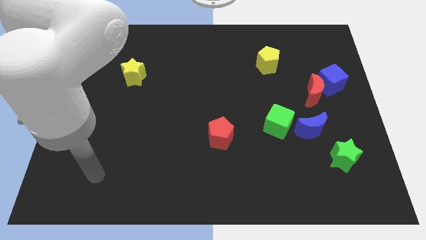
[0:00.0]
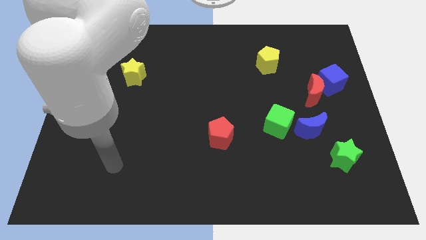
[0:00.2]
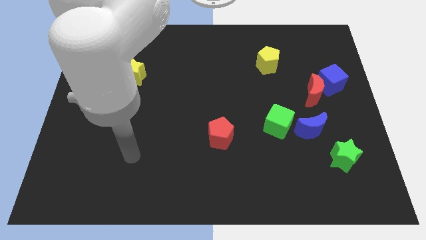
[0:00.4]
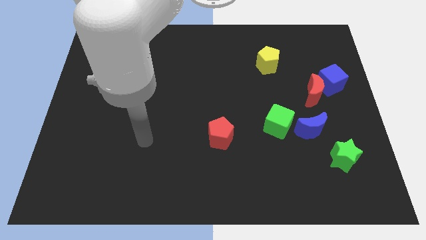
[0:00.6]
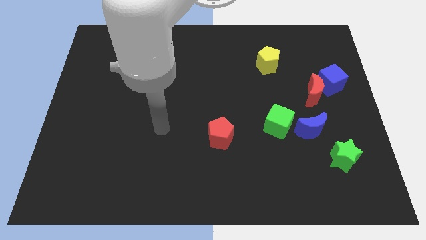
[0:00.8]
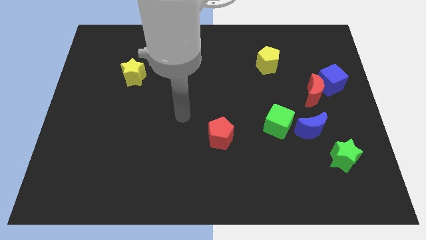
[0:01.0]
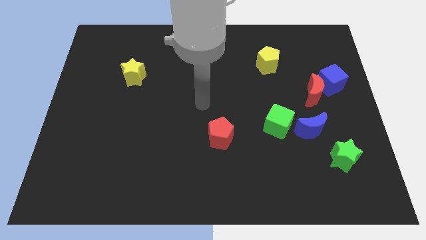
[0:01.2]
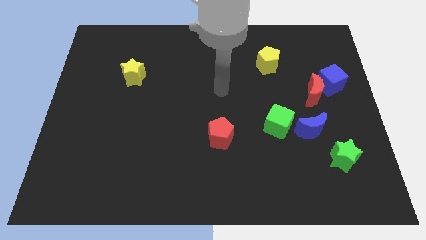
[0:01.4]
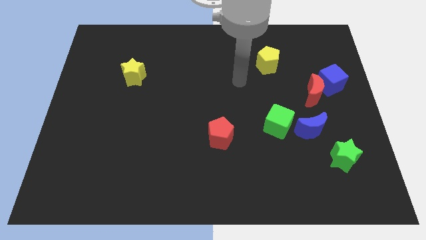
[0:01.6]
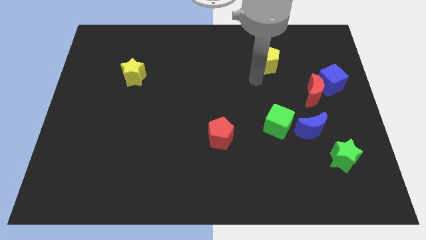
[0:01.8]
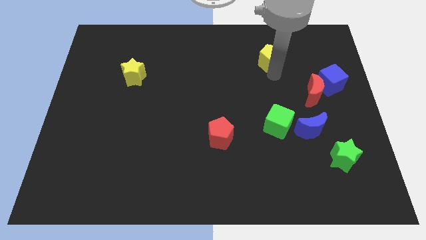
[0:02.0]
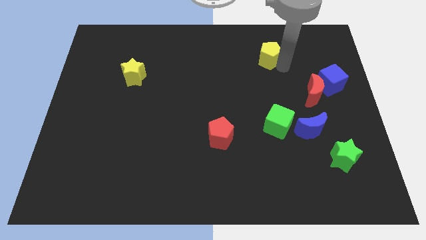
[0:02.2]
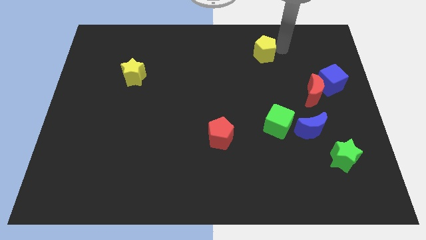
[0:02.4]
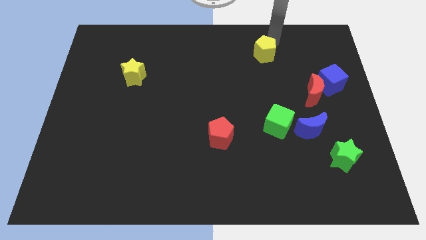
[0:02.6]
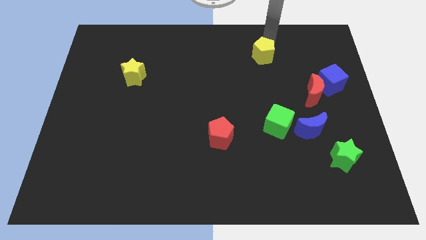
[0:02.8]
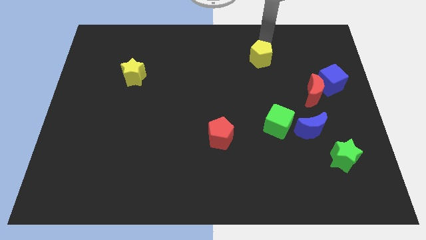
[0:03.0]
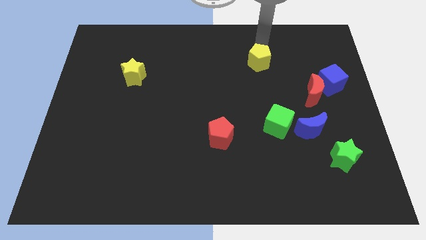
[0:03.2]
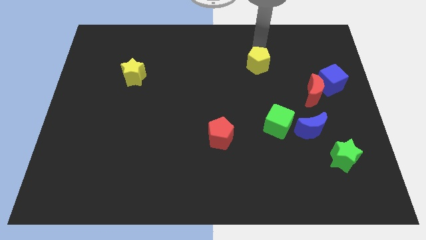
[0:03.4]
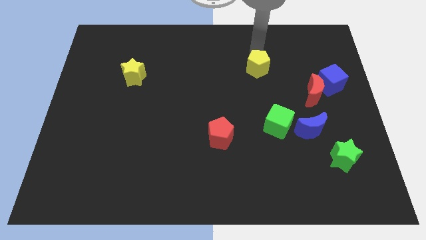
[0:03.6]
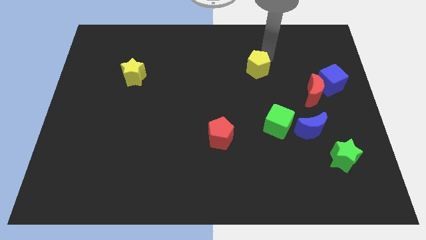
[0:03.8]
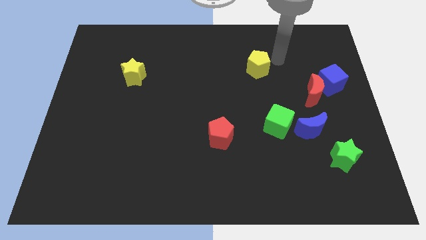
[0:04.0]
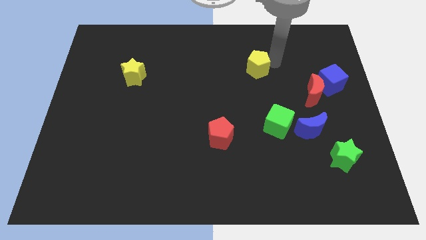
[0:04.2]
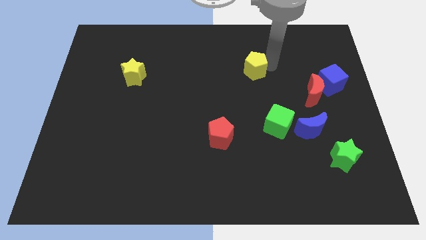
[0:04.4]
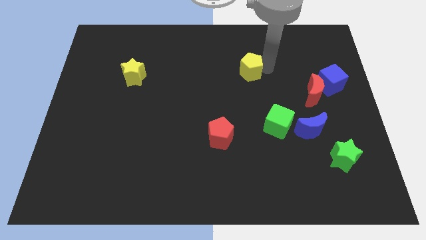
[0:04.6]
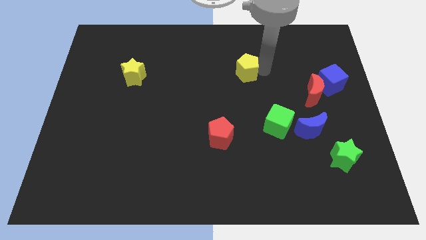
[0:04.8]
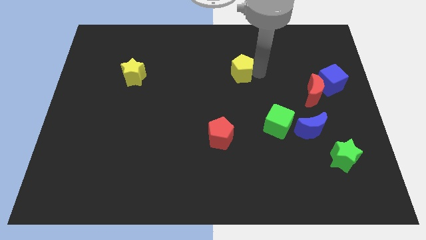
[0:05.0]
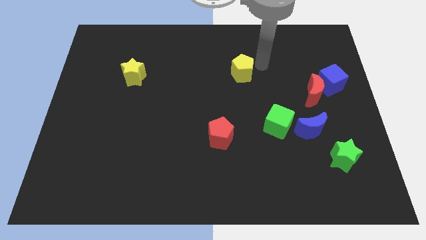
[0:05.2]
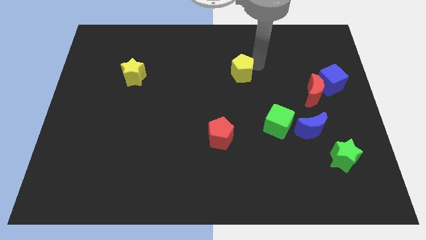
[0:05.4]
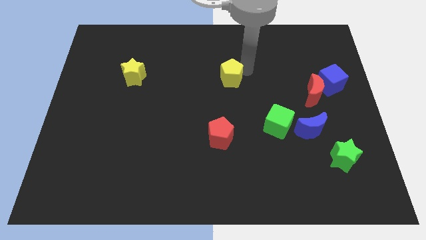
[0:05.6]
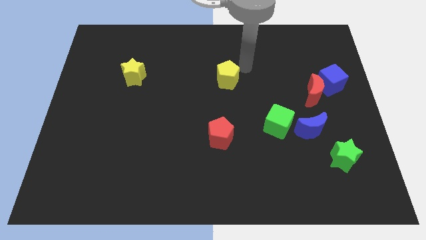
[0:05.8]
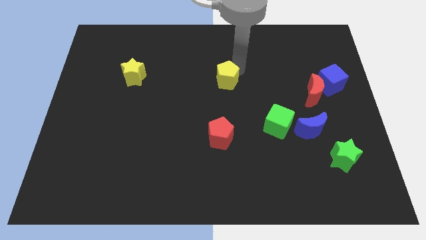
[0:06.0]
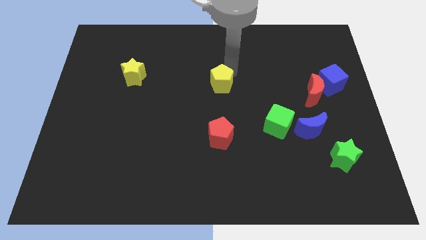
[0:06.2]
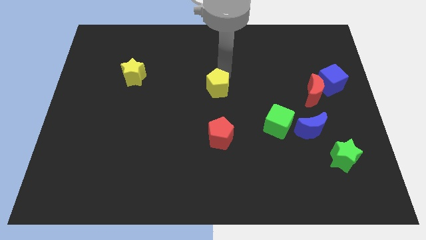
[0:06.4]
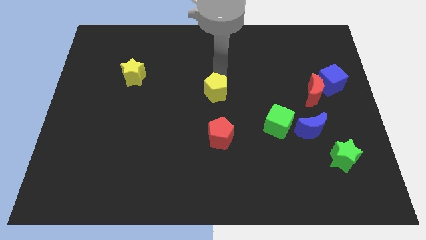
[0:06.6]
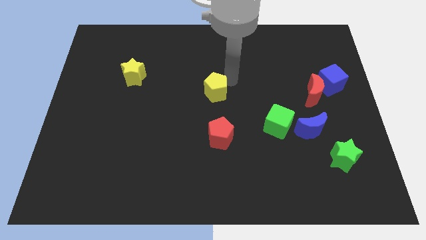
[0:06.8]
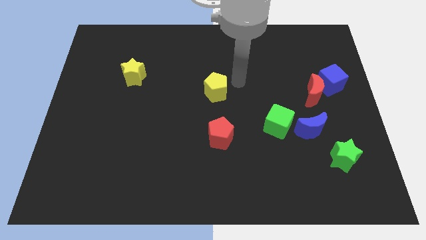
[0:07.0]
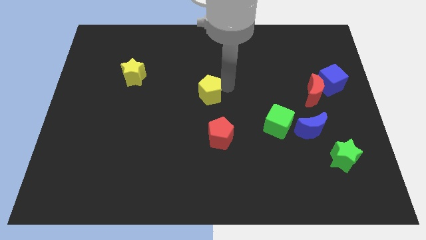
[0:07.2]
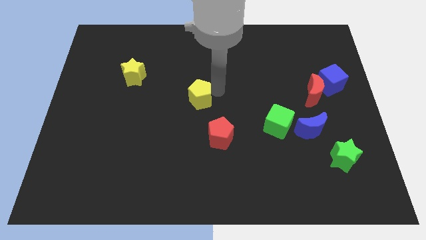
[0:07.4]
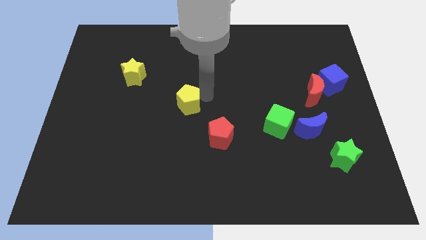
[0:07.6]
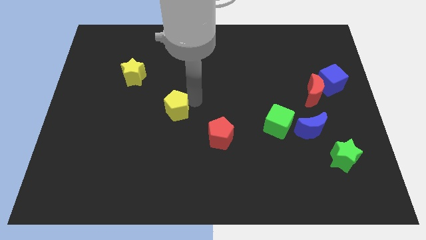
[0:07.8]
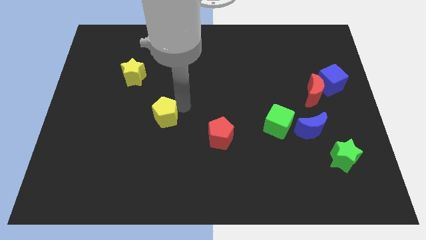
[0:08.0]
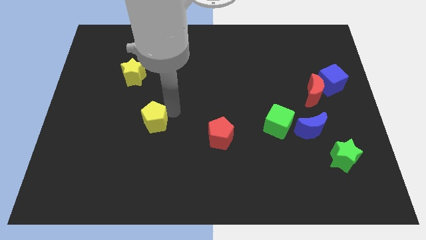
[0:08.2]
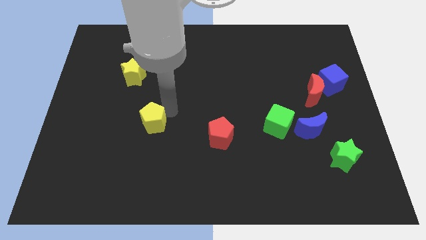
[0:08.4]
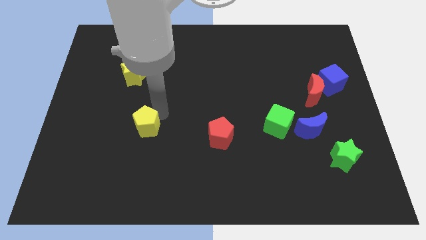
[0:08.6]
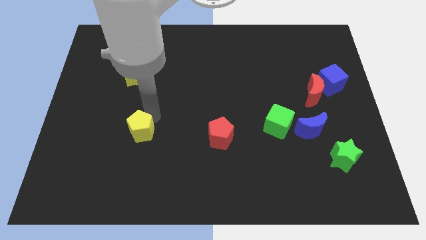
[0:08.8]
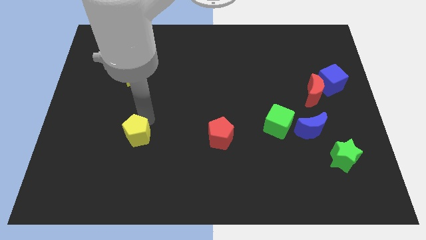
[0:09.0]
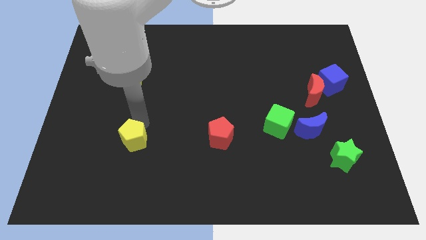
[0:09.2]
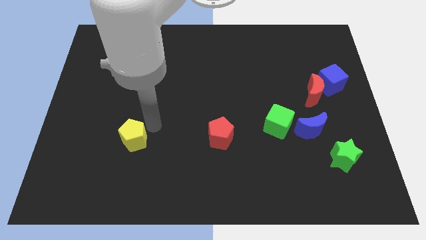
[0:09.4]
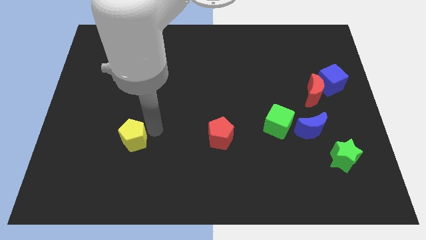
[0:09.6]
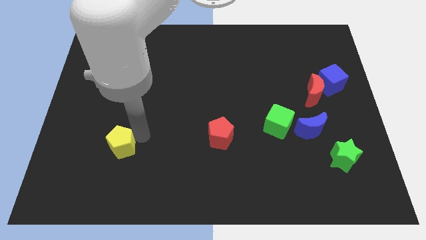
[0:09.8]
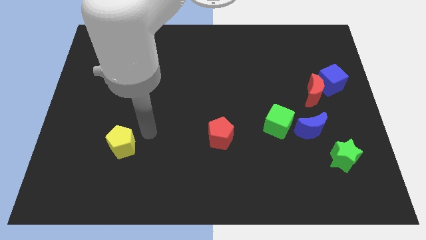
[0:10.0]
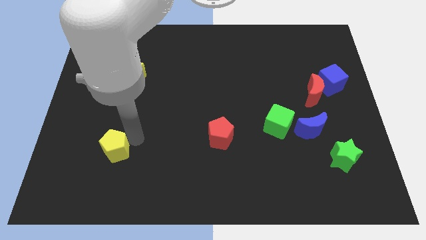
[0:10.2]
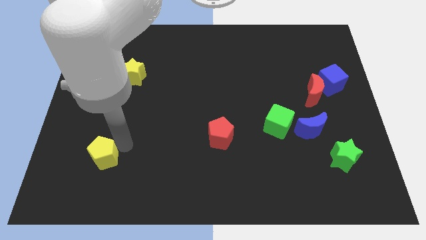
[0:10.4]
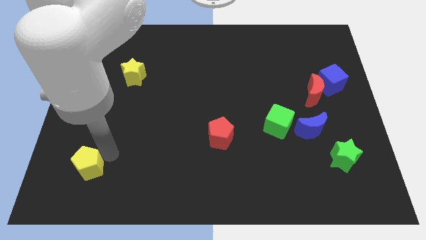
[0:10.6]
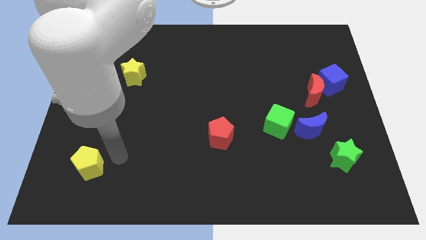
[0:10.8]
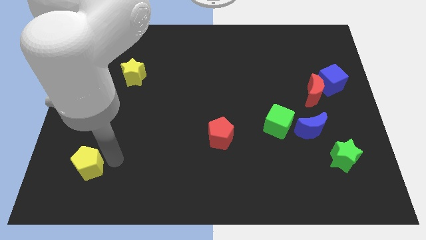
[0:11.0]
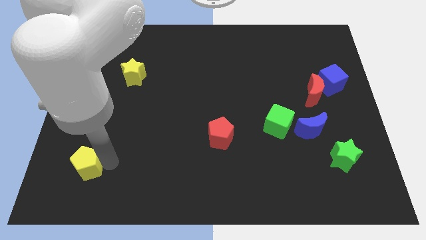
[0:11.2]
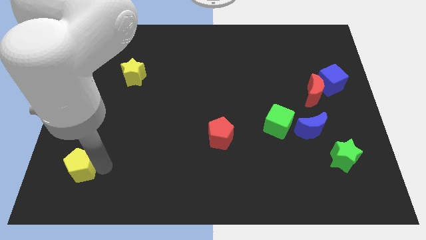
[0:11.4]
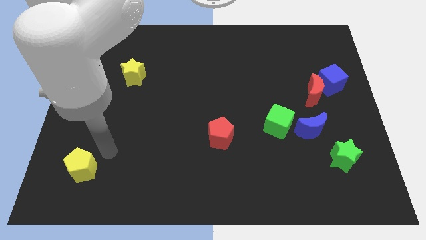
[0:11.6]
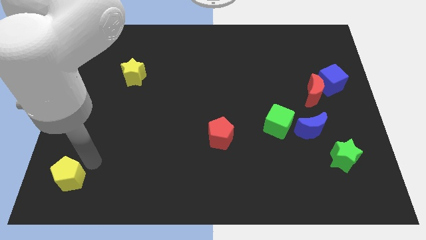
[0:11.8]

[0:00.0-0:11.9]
slide the yellow pentagon to the bottom left corner

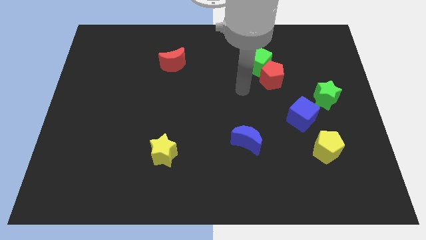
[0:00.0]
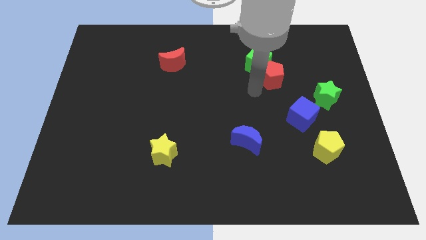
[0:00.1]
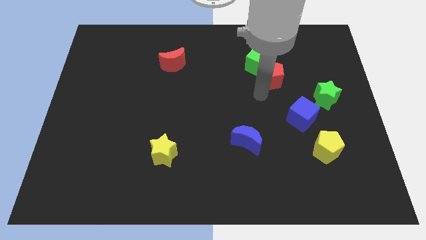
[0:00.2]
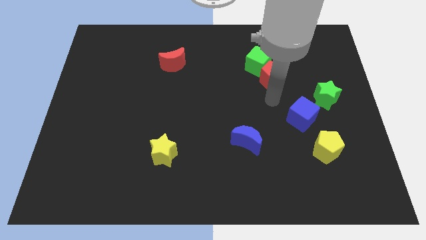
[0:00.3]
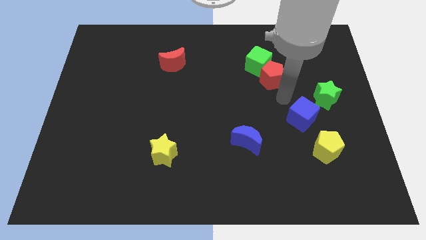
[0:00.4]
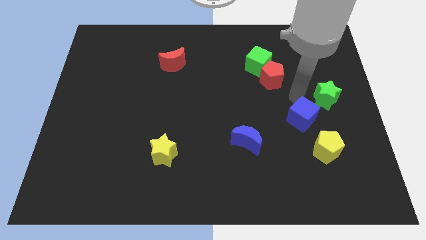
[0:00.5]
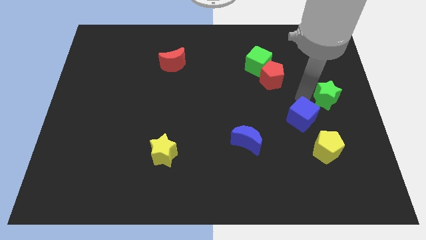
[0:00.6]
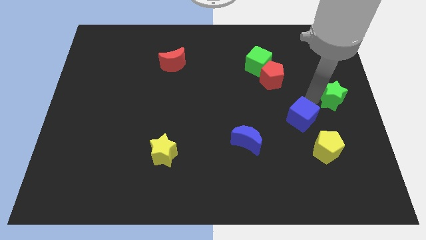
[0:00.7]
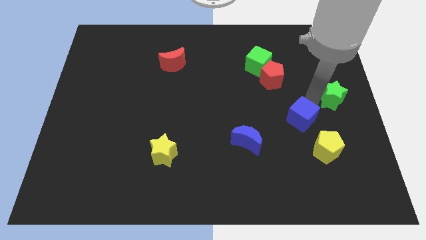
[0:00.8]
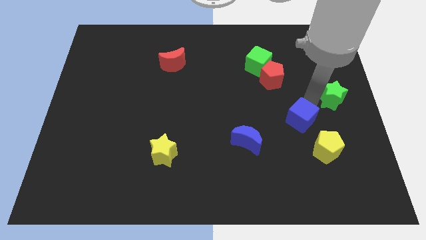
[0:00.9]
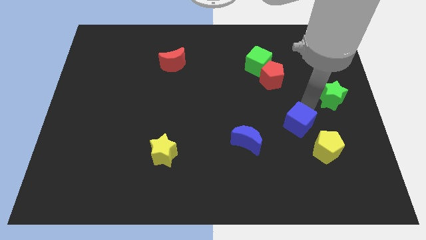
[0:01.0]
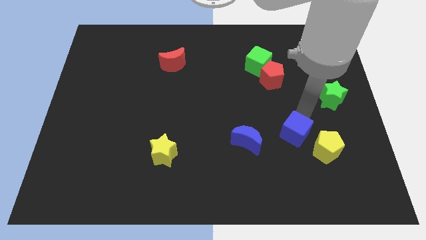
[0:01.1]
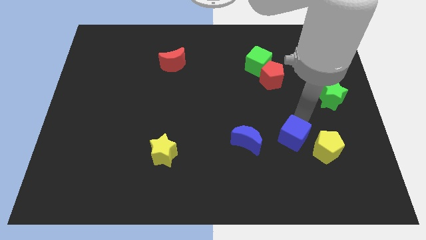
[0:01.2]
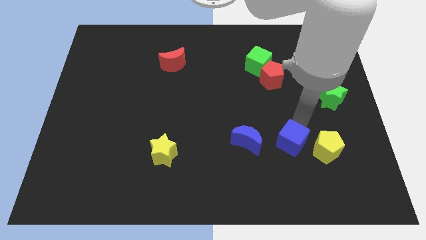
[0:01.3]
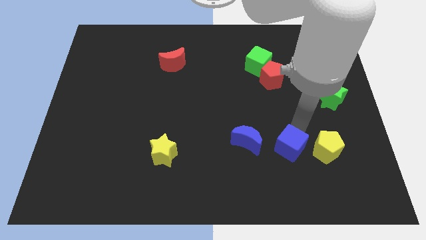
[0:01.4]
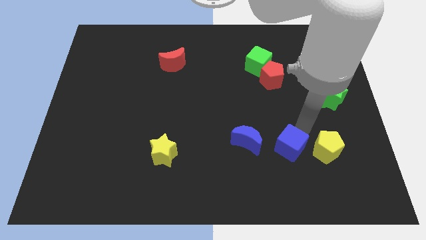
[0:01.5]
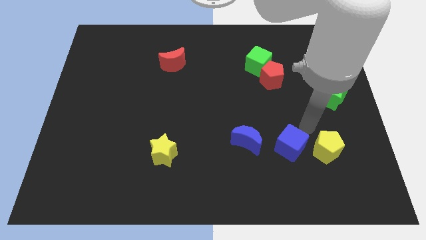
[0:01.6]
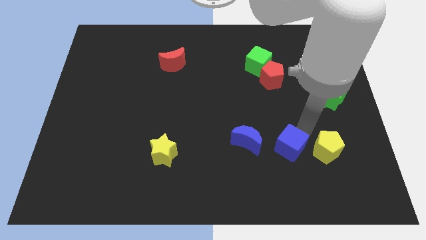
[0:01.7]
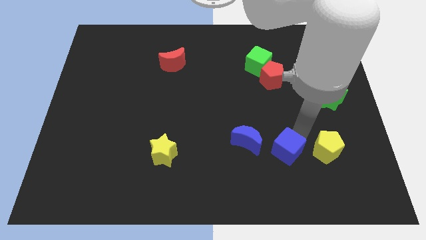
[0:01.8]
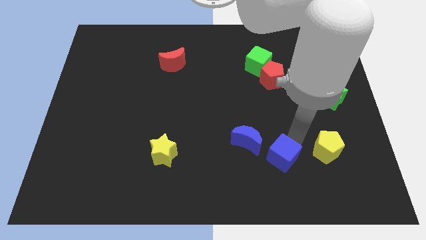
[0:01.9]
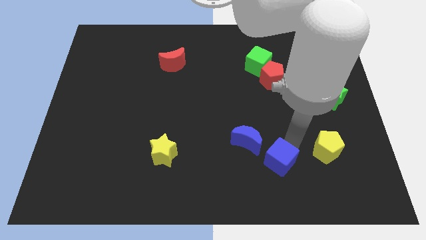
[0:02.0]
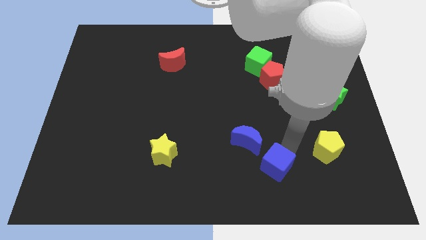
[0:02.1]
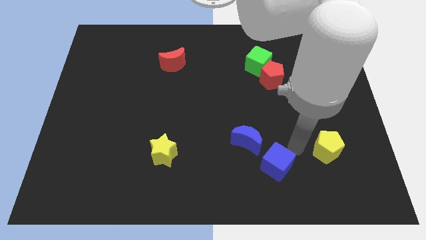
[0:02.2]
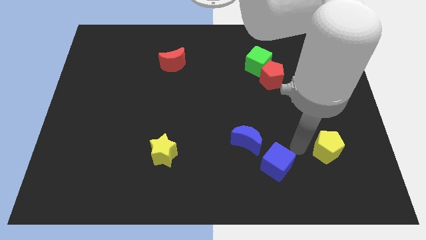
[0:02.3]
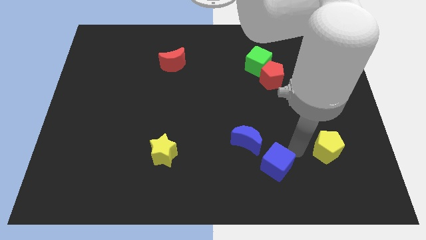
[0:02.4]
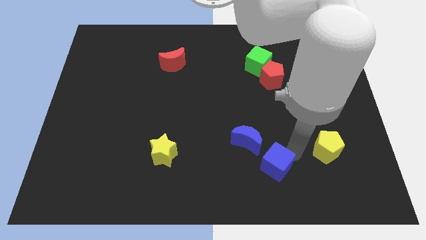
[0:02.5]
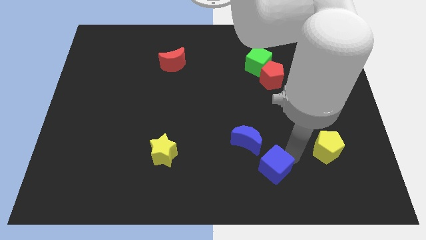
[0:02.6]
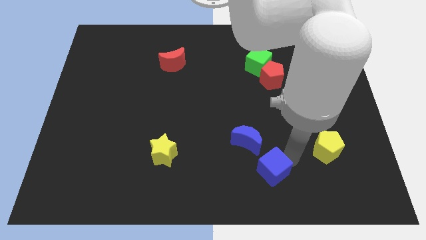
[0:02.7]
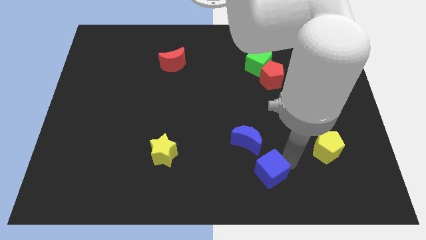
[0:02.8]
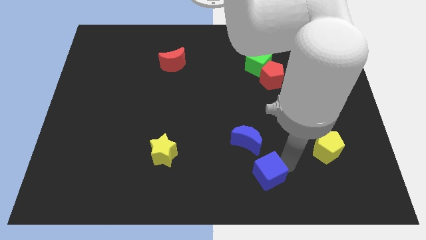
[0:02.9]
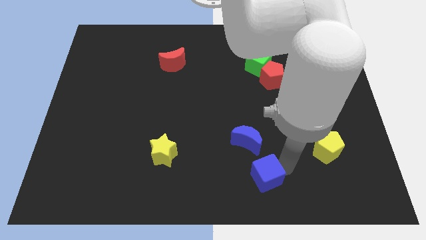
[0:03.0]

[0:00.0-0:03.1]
slide the blue cube to the bottom
